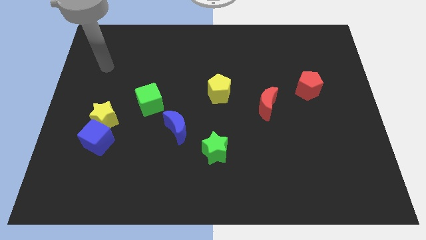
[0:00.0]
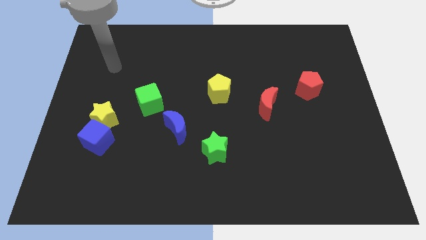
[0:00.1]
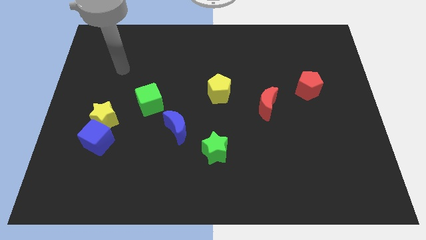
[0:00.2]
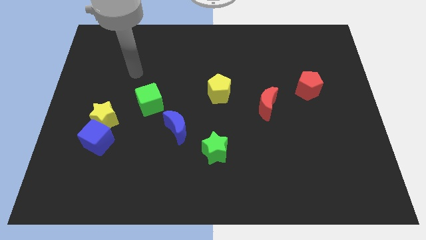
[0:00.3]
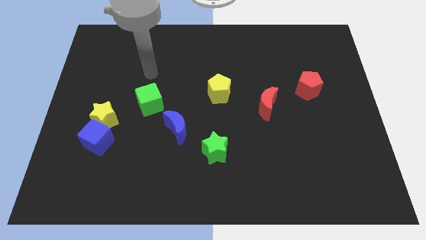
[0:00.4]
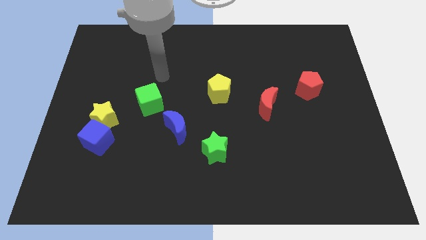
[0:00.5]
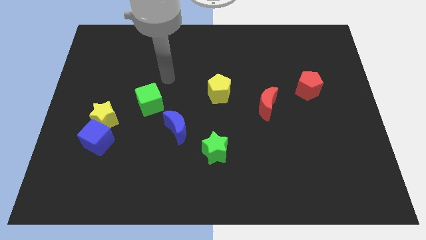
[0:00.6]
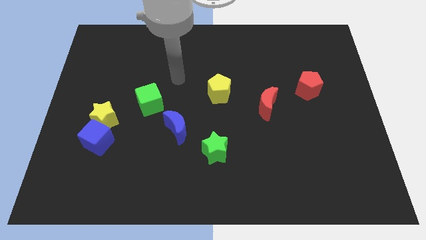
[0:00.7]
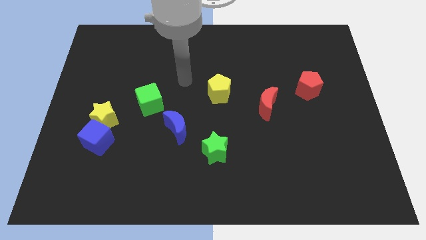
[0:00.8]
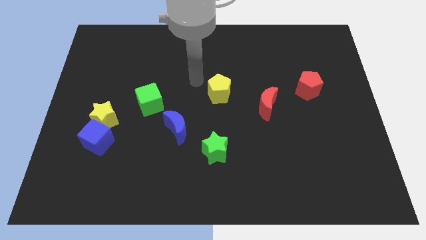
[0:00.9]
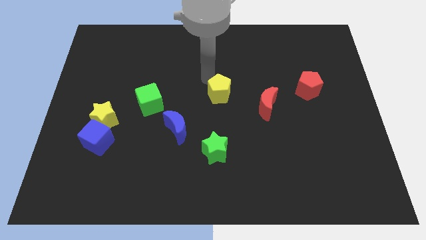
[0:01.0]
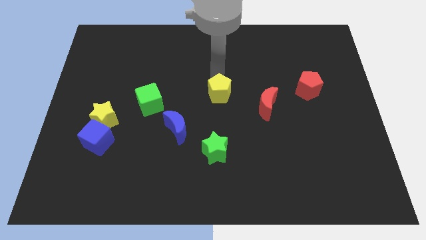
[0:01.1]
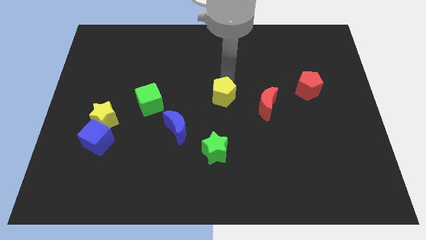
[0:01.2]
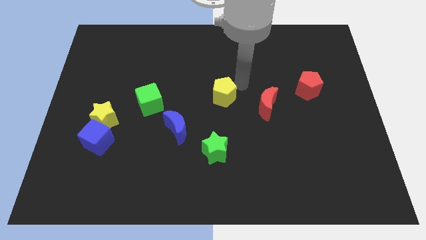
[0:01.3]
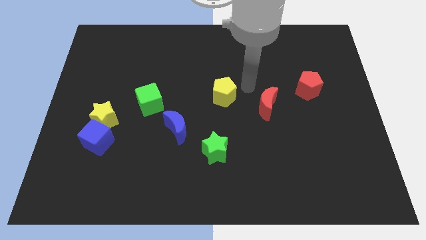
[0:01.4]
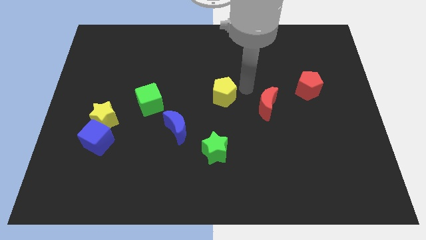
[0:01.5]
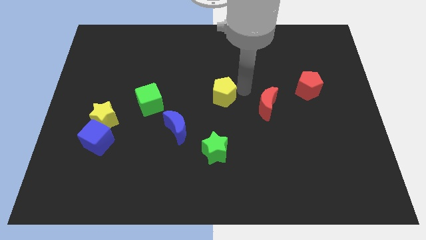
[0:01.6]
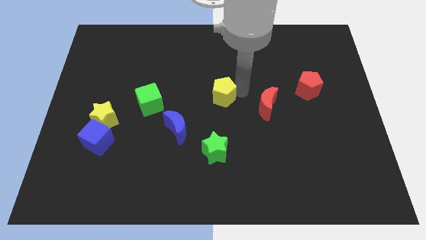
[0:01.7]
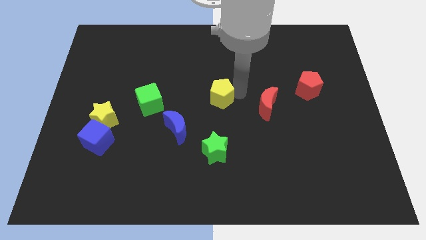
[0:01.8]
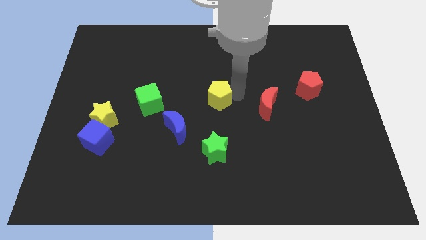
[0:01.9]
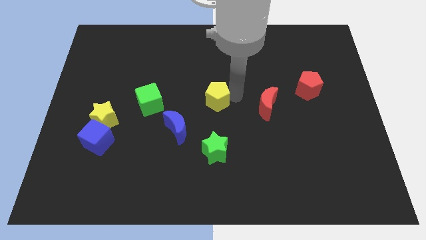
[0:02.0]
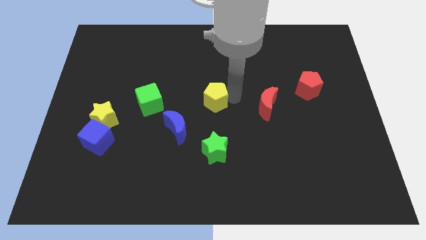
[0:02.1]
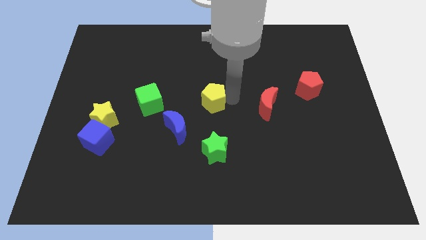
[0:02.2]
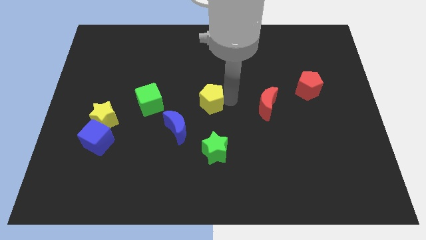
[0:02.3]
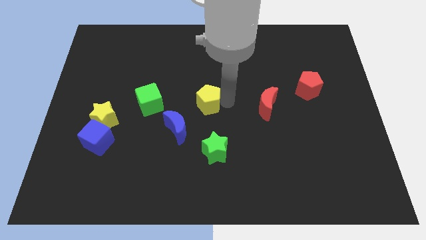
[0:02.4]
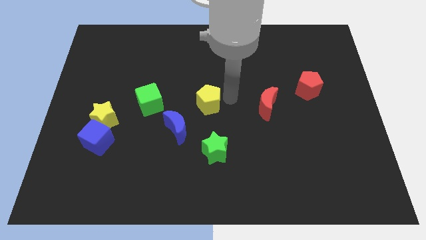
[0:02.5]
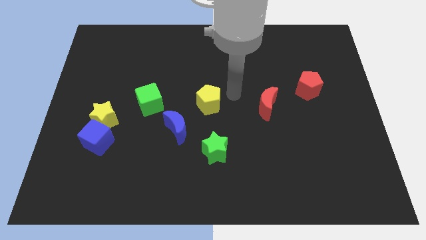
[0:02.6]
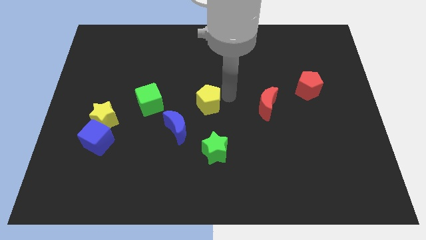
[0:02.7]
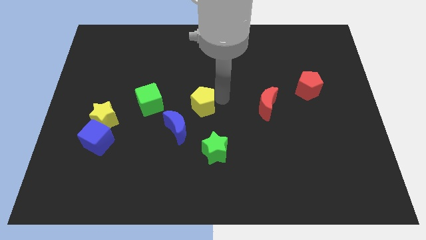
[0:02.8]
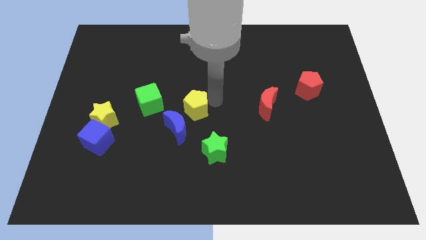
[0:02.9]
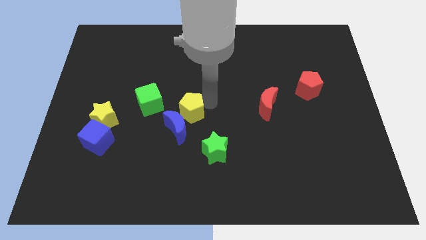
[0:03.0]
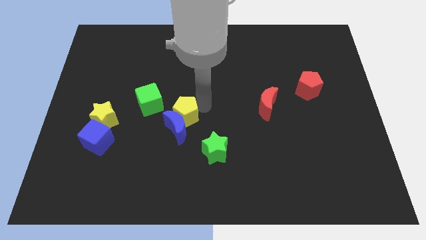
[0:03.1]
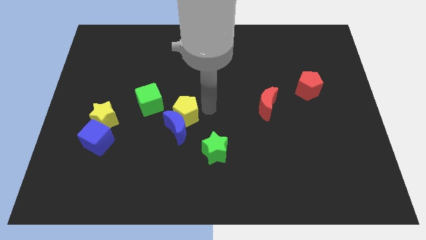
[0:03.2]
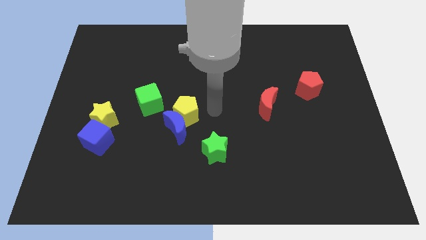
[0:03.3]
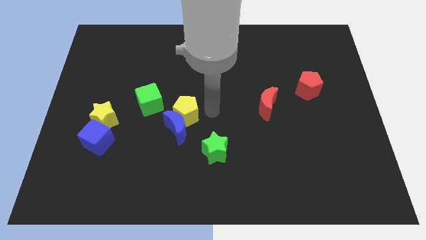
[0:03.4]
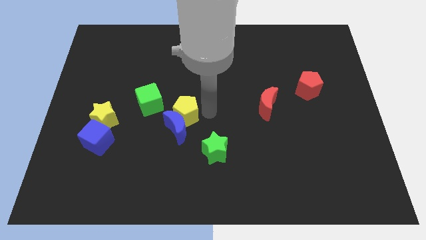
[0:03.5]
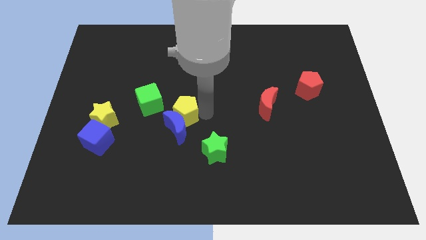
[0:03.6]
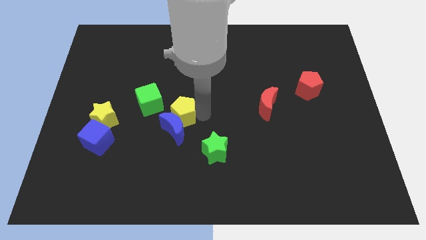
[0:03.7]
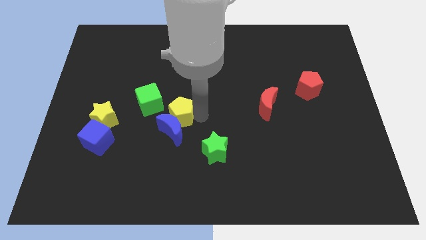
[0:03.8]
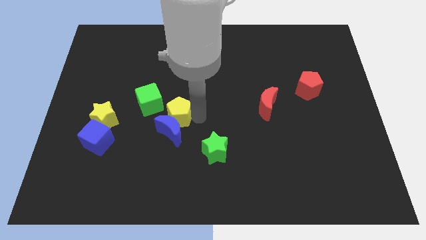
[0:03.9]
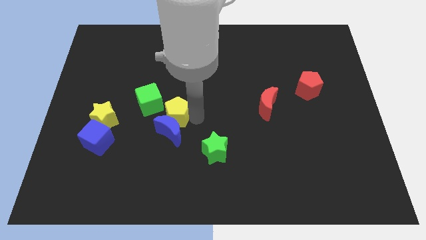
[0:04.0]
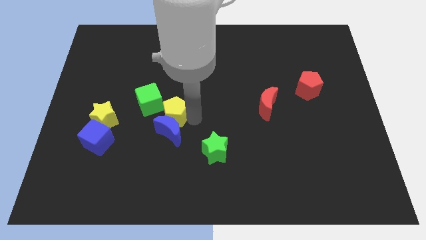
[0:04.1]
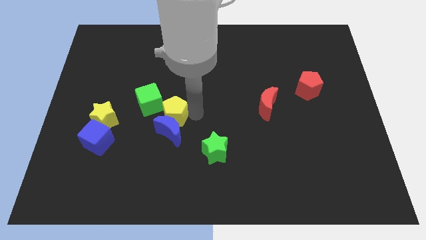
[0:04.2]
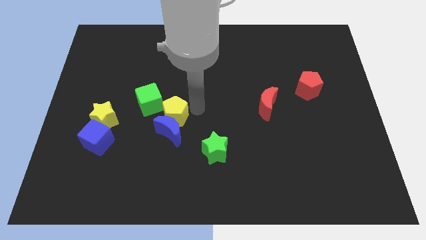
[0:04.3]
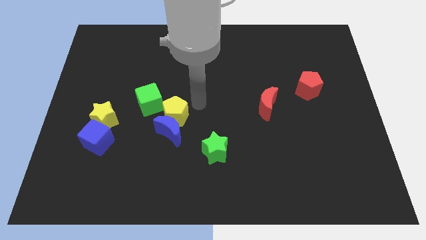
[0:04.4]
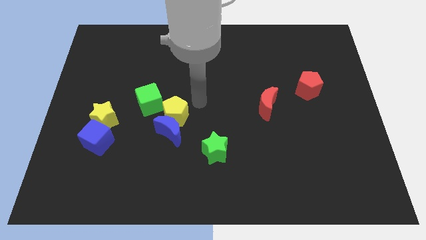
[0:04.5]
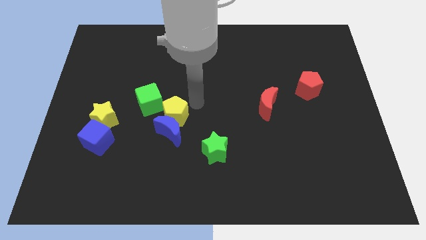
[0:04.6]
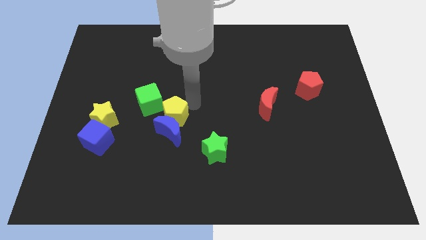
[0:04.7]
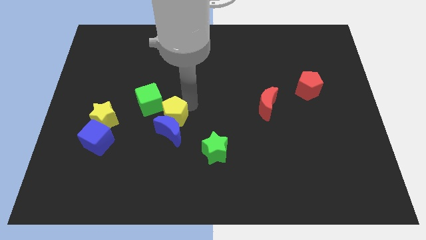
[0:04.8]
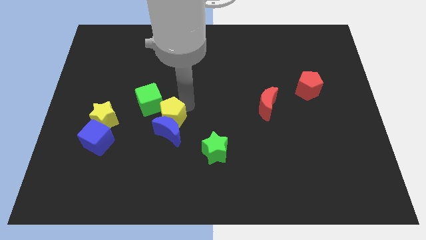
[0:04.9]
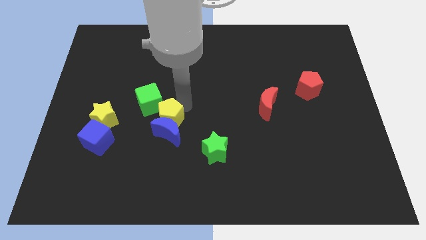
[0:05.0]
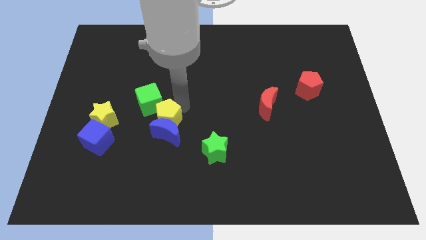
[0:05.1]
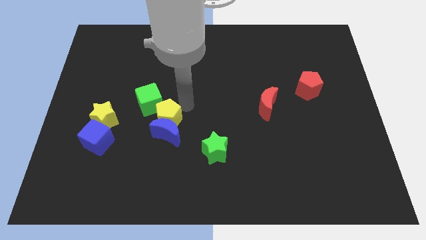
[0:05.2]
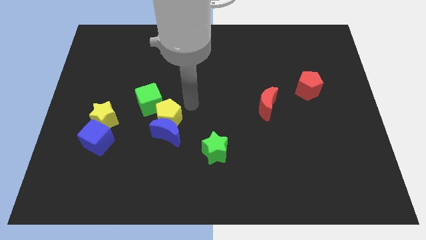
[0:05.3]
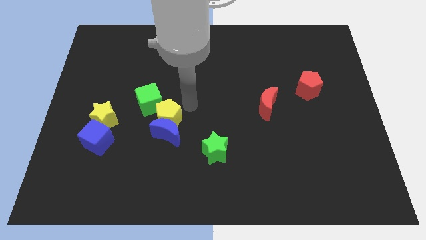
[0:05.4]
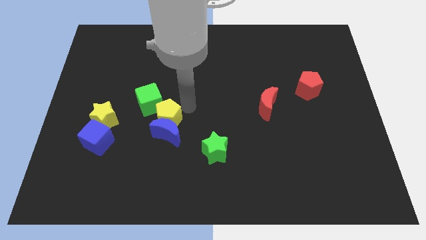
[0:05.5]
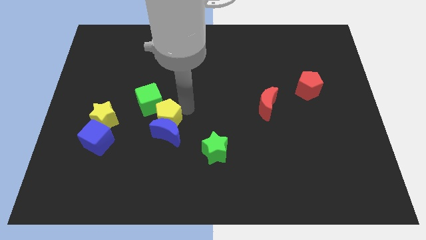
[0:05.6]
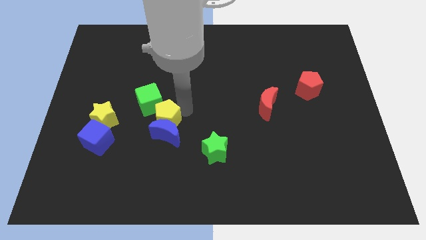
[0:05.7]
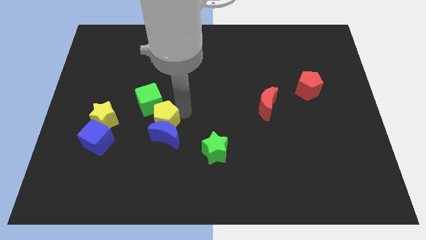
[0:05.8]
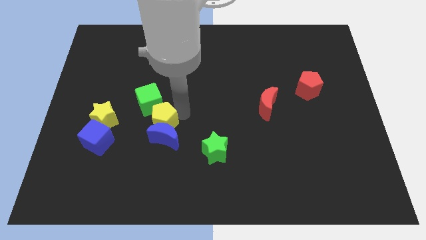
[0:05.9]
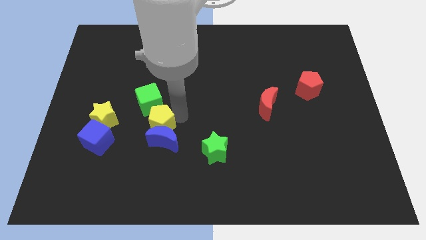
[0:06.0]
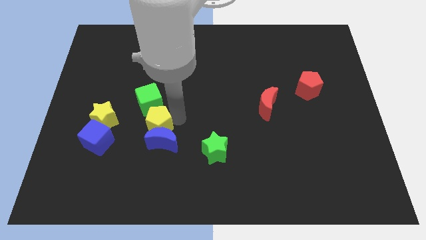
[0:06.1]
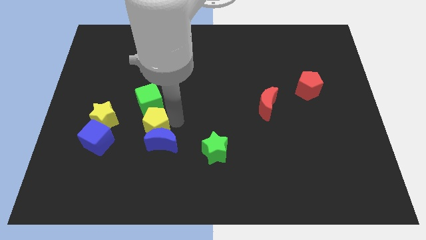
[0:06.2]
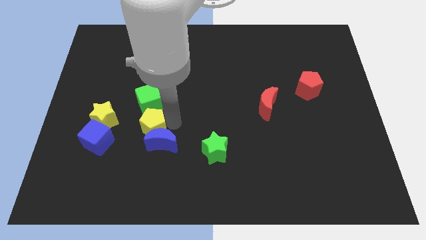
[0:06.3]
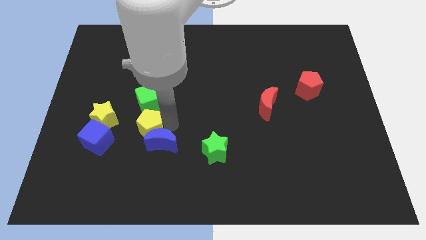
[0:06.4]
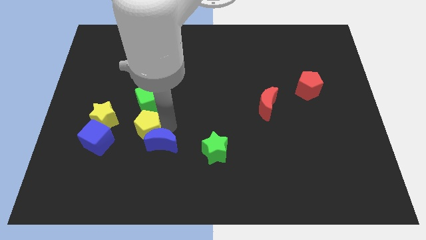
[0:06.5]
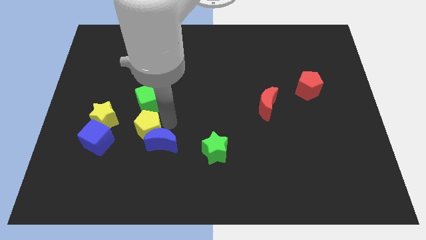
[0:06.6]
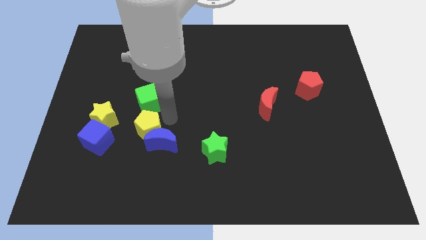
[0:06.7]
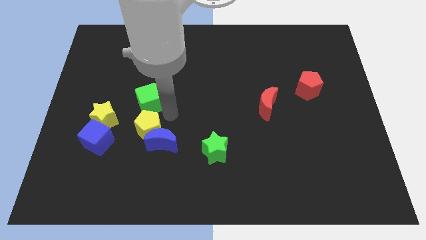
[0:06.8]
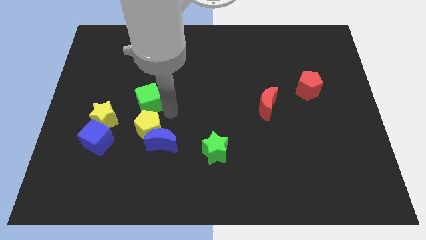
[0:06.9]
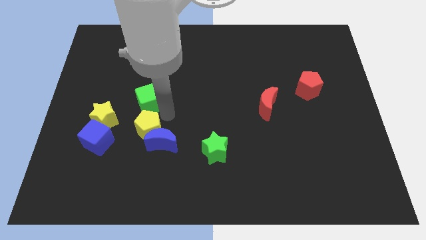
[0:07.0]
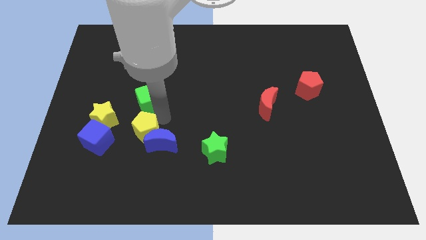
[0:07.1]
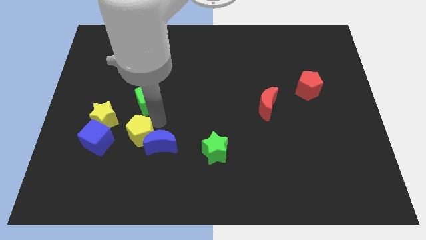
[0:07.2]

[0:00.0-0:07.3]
slide the yellow pentagon down and then left

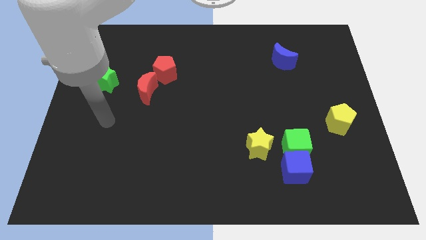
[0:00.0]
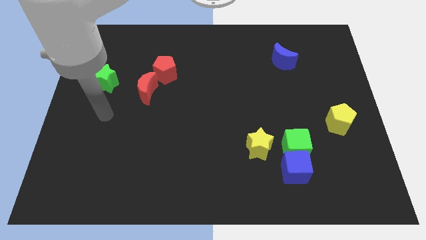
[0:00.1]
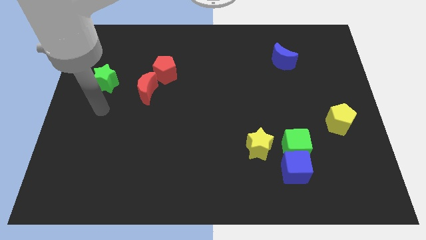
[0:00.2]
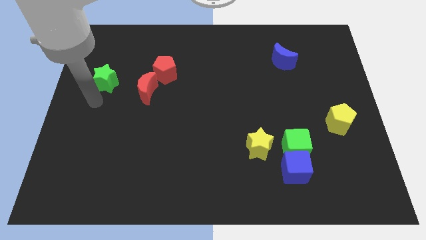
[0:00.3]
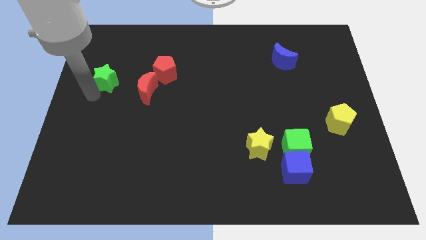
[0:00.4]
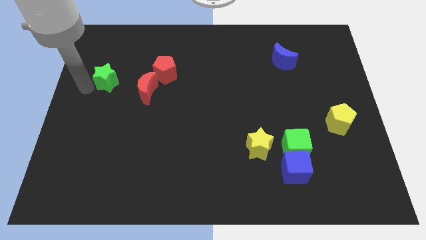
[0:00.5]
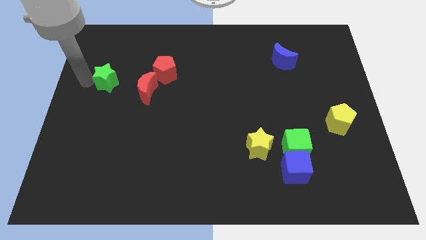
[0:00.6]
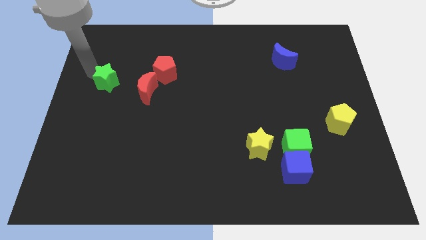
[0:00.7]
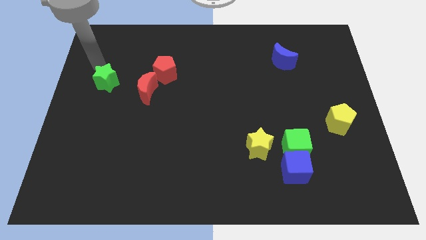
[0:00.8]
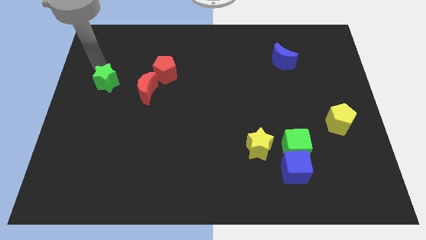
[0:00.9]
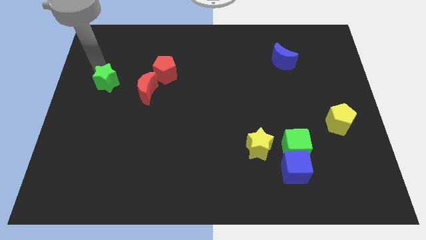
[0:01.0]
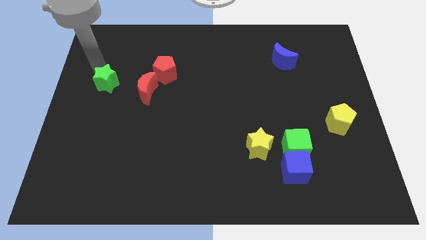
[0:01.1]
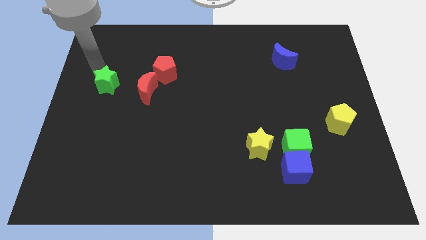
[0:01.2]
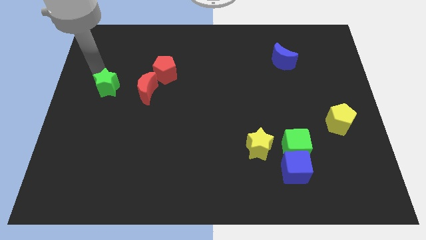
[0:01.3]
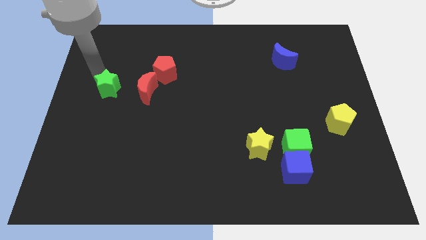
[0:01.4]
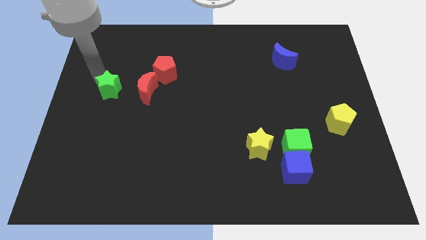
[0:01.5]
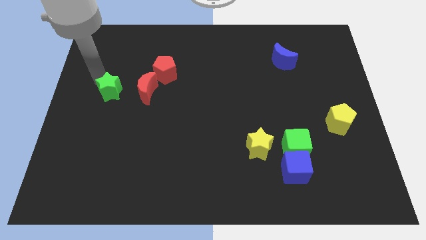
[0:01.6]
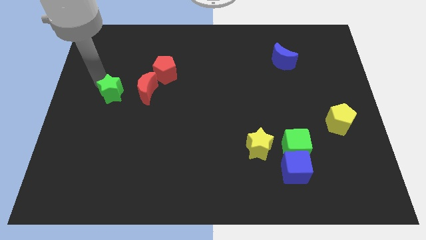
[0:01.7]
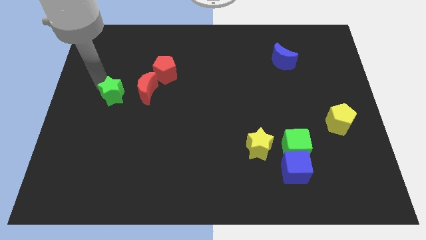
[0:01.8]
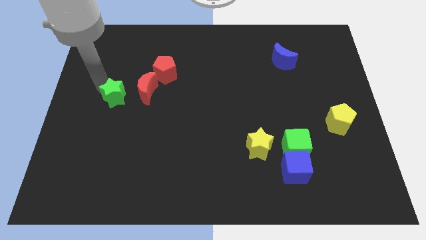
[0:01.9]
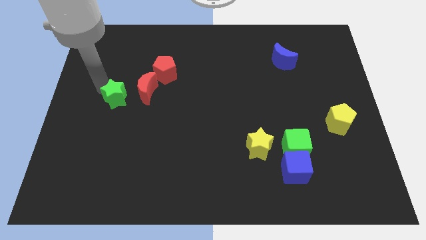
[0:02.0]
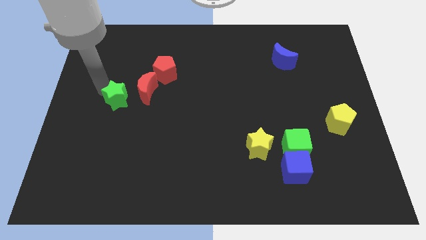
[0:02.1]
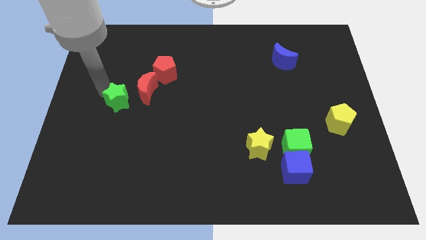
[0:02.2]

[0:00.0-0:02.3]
slide the green star slightly diagonally downwards and to the right
